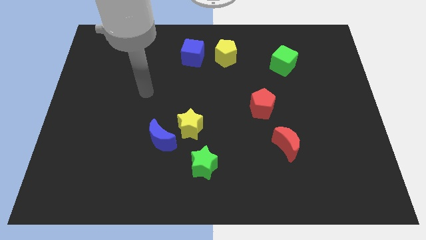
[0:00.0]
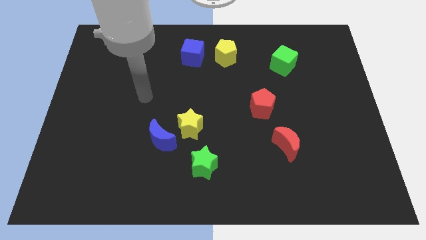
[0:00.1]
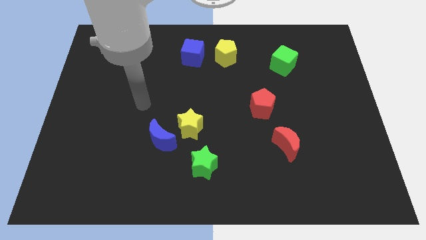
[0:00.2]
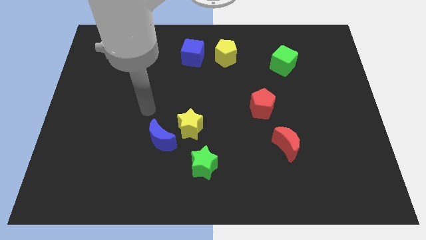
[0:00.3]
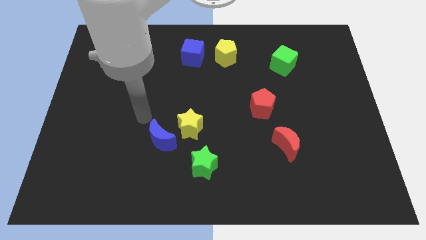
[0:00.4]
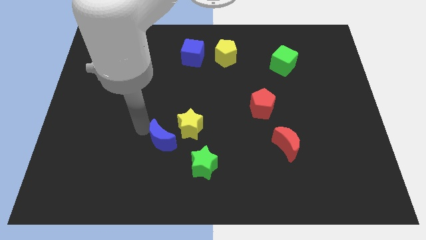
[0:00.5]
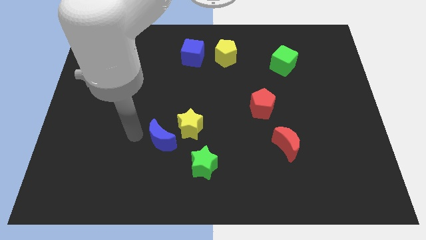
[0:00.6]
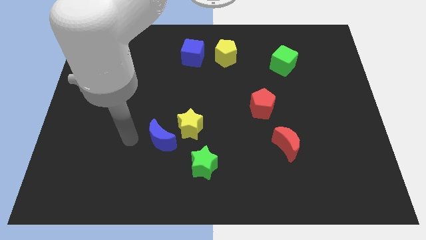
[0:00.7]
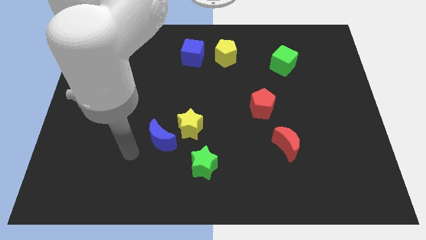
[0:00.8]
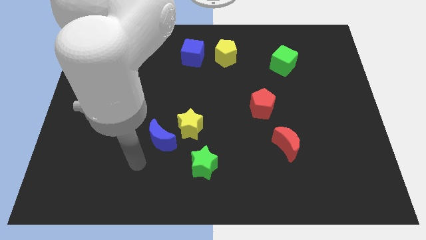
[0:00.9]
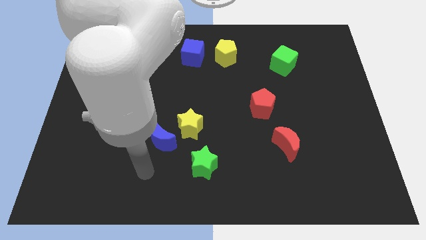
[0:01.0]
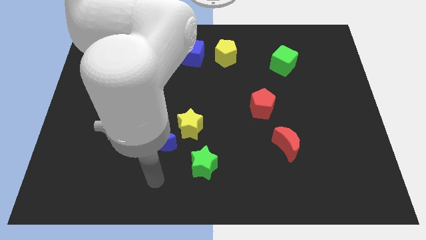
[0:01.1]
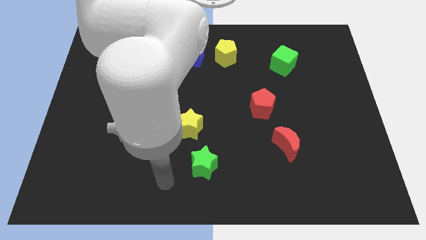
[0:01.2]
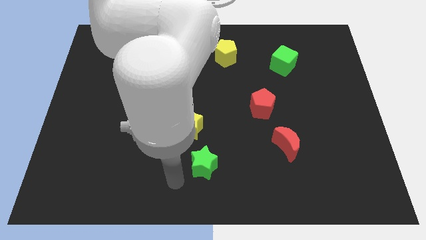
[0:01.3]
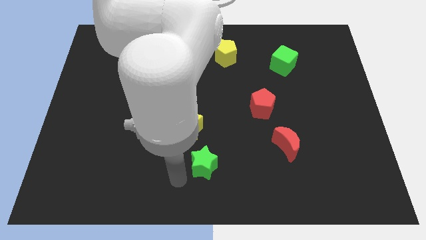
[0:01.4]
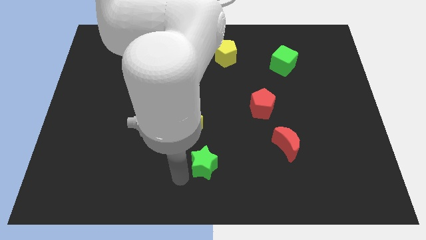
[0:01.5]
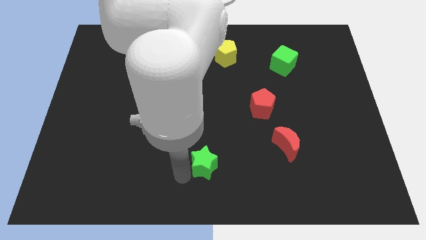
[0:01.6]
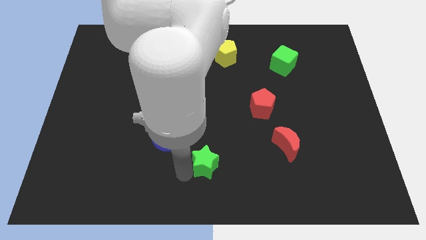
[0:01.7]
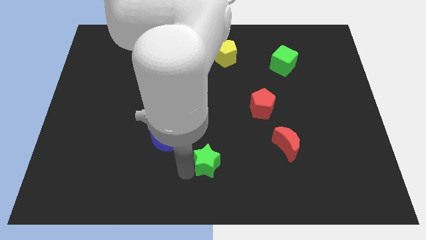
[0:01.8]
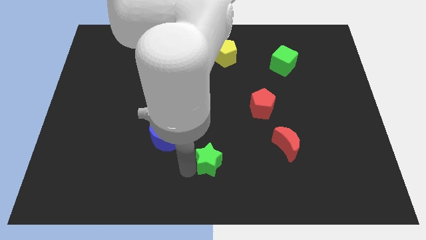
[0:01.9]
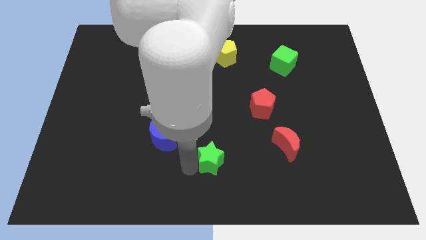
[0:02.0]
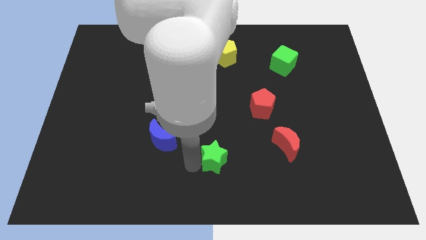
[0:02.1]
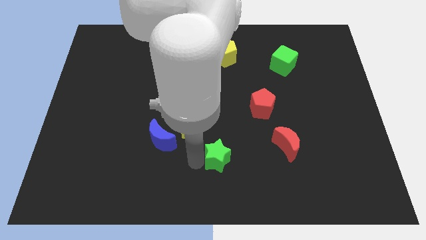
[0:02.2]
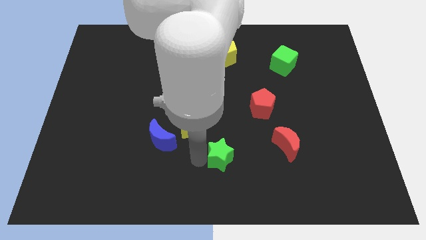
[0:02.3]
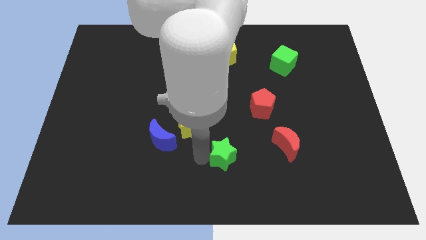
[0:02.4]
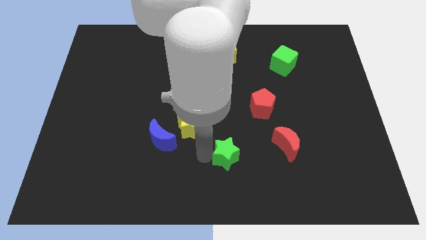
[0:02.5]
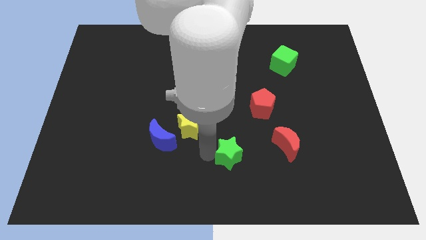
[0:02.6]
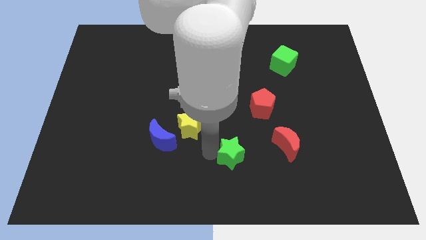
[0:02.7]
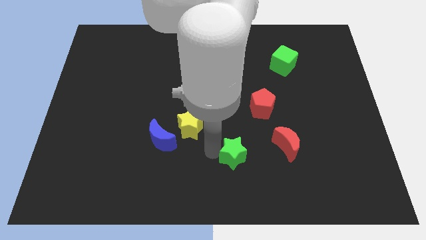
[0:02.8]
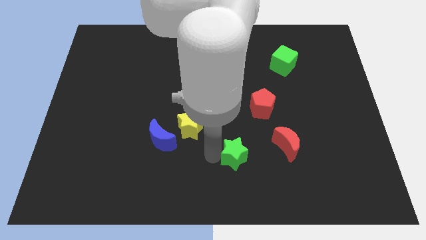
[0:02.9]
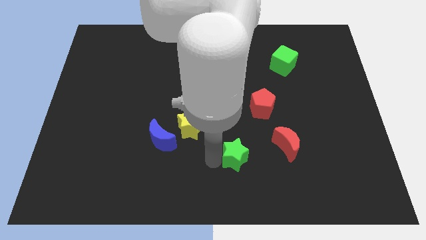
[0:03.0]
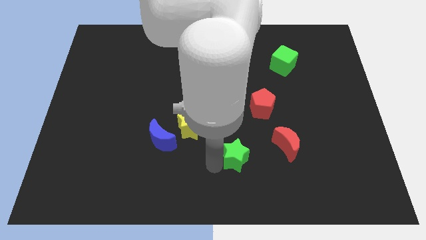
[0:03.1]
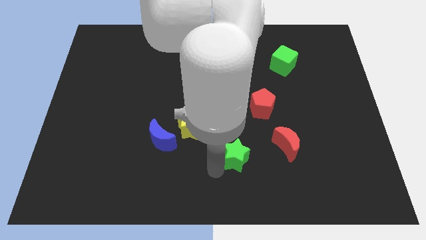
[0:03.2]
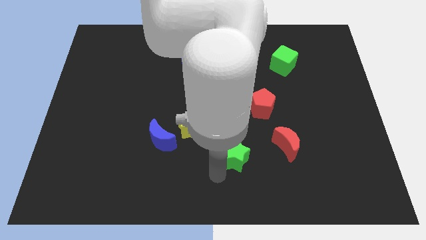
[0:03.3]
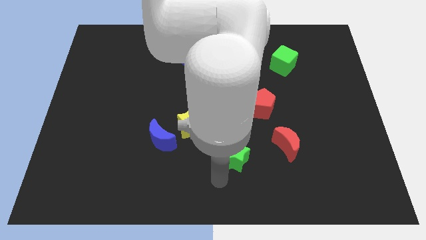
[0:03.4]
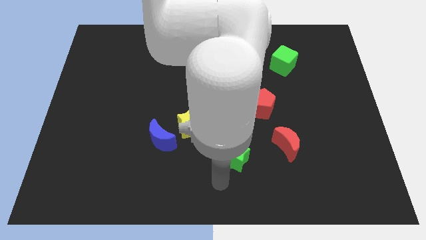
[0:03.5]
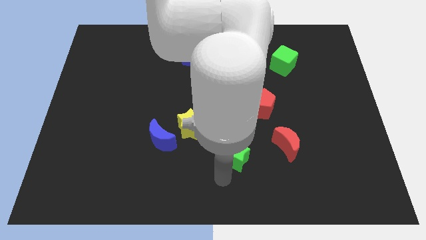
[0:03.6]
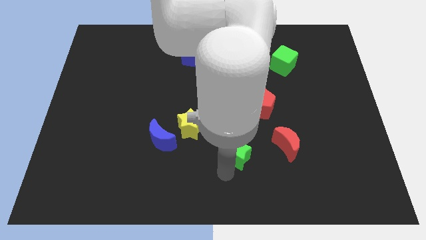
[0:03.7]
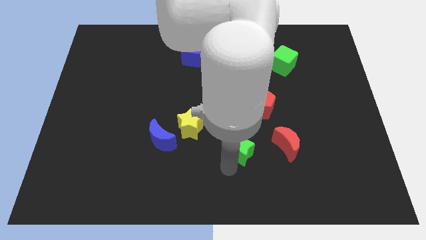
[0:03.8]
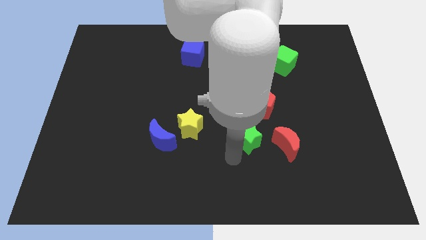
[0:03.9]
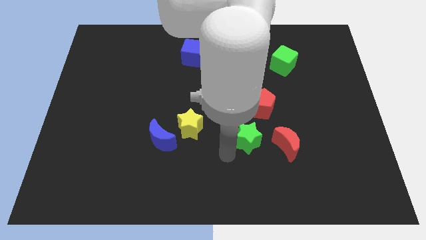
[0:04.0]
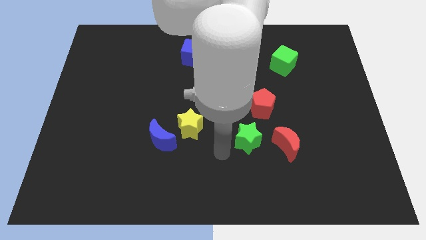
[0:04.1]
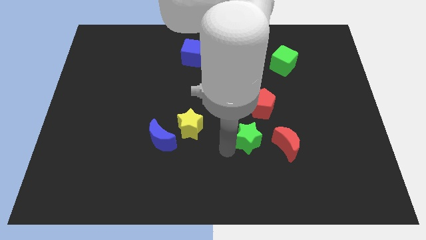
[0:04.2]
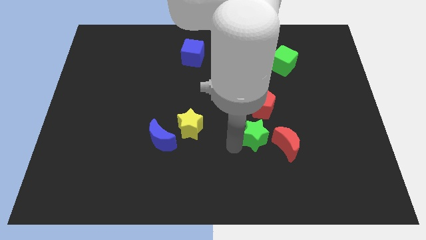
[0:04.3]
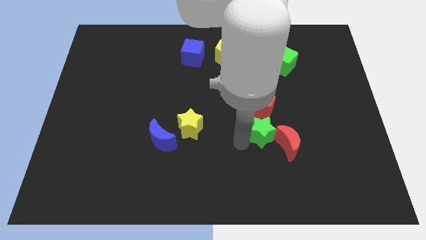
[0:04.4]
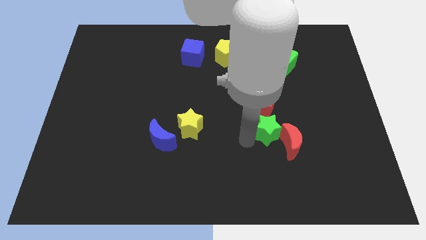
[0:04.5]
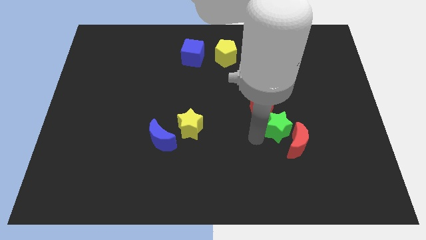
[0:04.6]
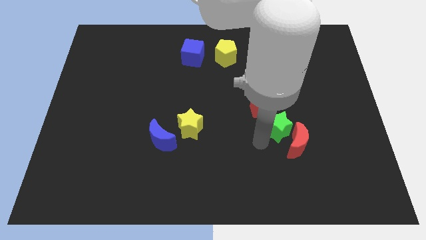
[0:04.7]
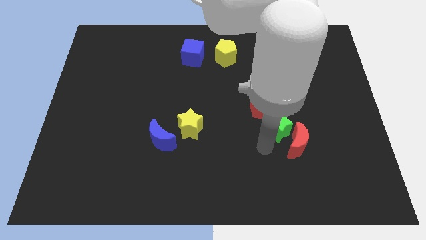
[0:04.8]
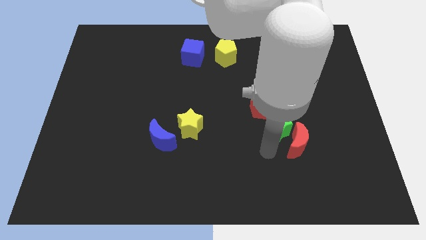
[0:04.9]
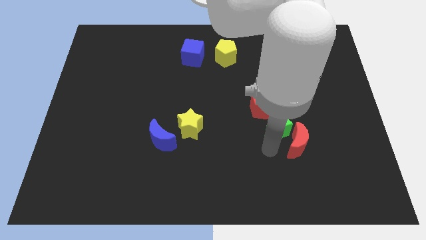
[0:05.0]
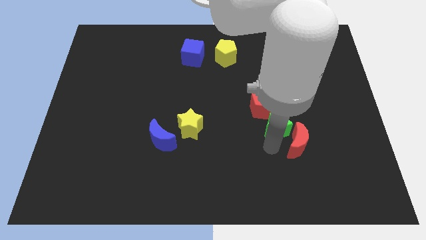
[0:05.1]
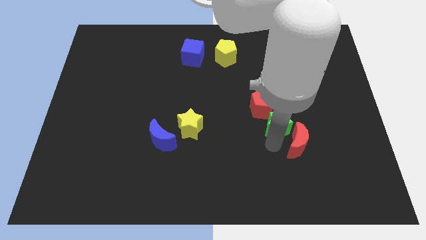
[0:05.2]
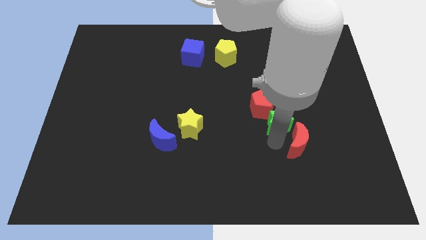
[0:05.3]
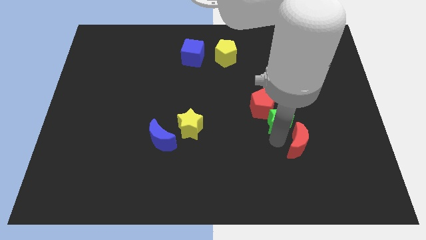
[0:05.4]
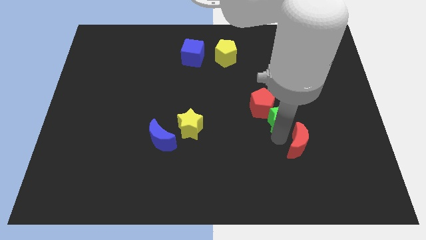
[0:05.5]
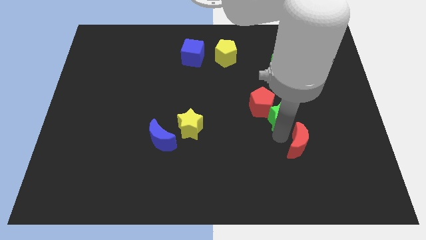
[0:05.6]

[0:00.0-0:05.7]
slide the green star diagonally up and to the right

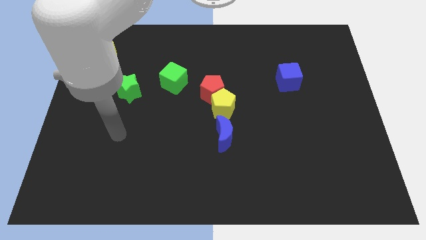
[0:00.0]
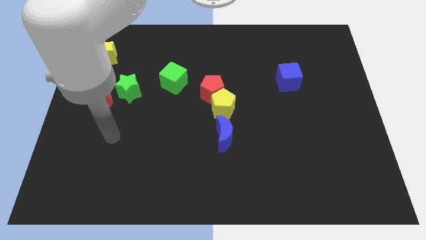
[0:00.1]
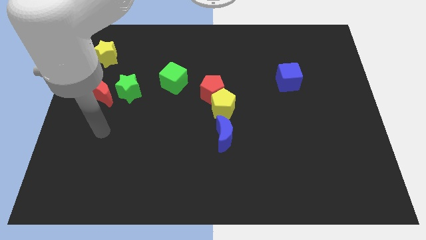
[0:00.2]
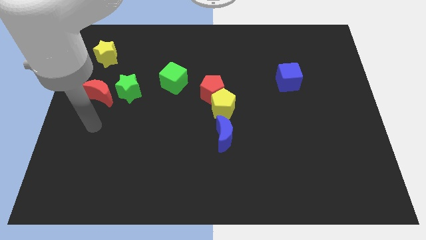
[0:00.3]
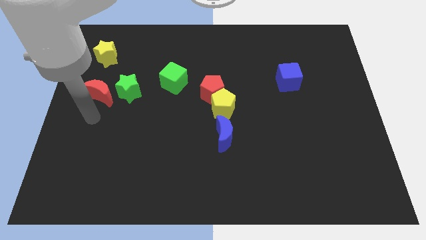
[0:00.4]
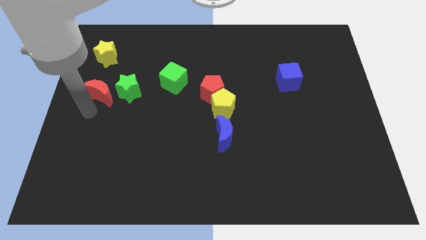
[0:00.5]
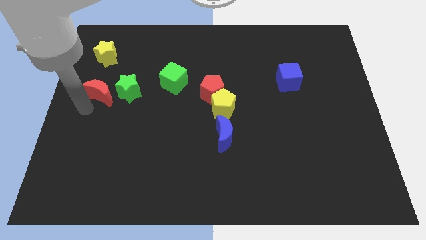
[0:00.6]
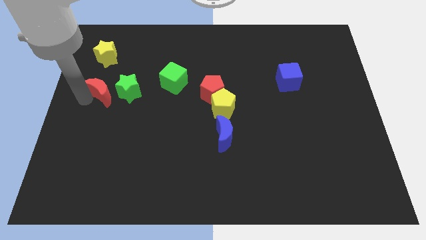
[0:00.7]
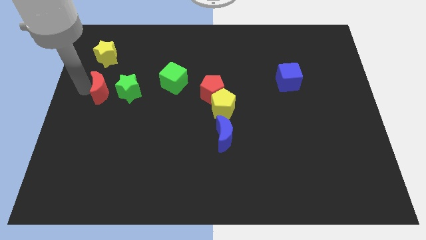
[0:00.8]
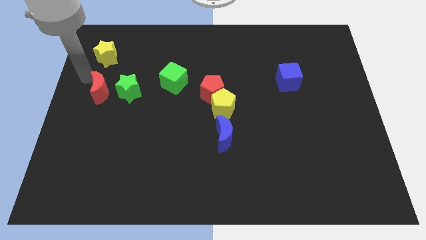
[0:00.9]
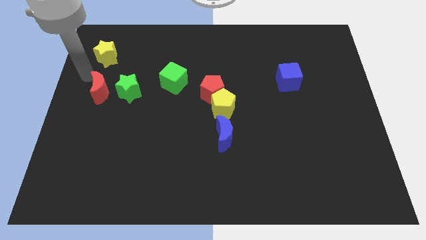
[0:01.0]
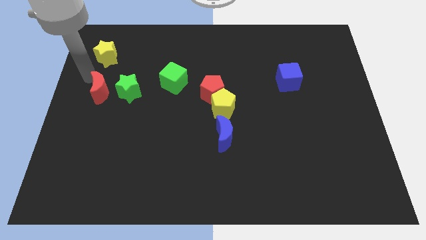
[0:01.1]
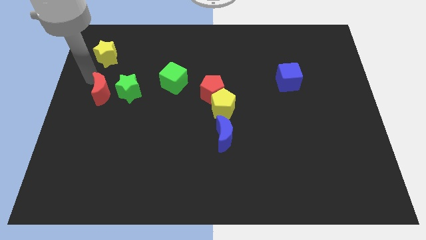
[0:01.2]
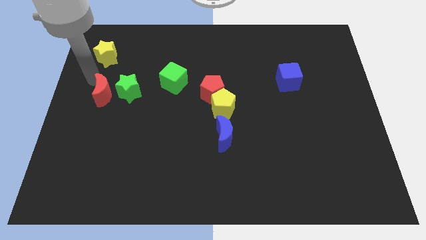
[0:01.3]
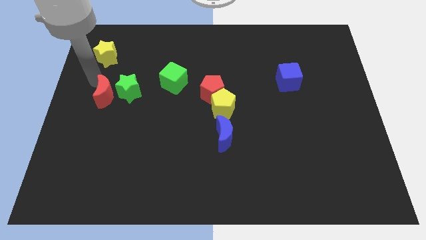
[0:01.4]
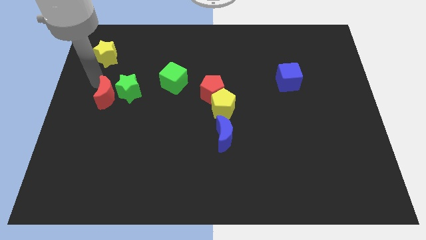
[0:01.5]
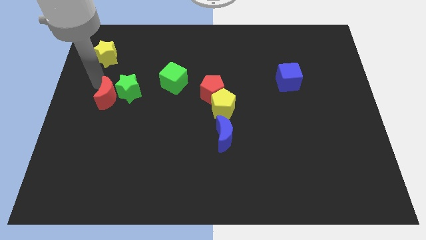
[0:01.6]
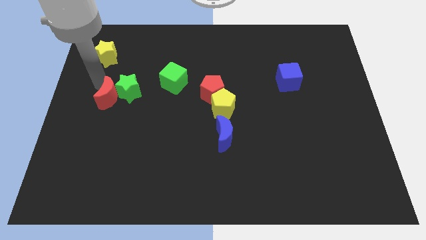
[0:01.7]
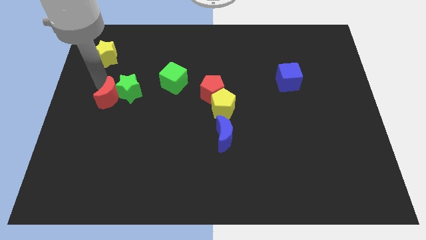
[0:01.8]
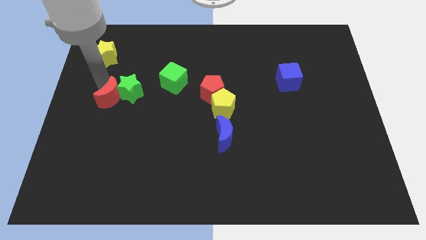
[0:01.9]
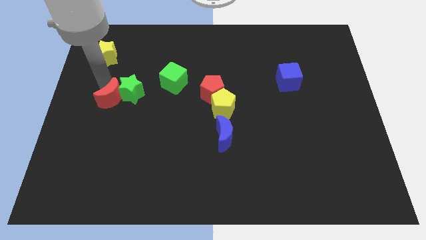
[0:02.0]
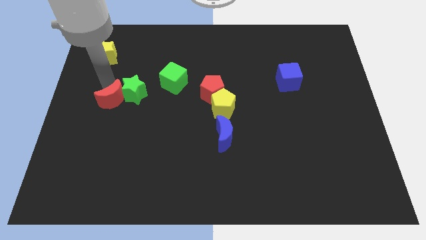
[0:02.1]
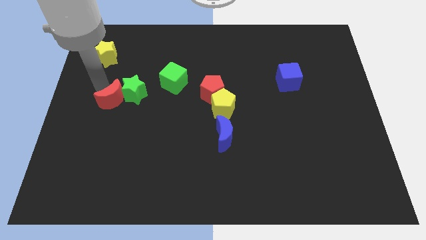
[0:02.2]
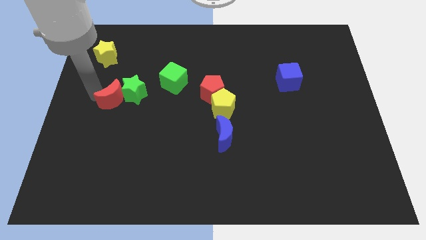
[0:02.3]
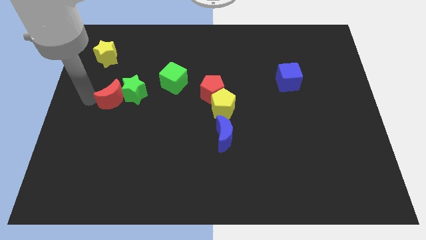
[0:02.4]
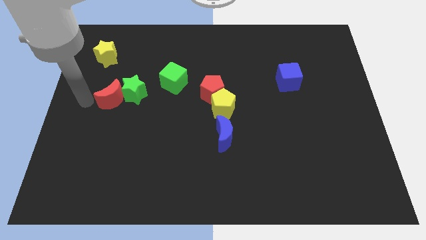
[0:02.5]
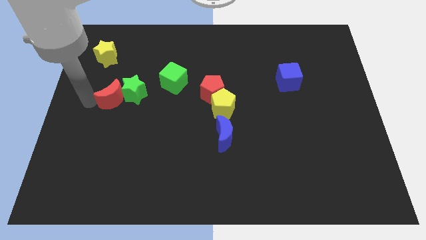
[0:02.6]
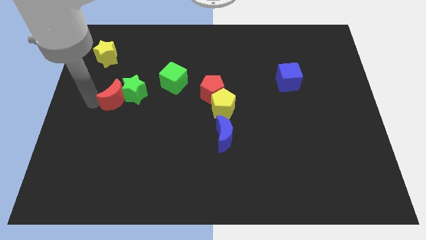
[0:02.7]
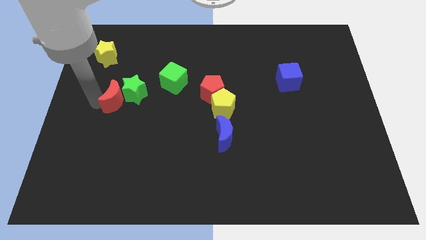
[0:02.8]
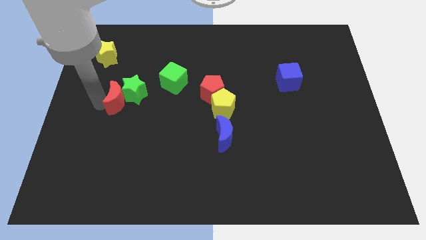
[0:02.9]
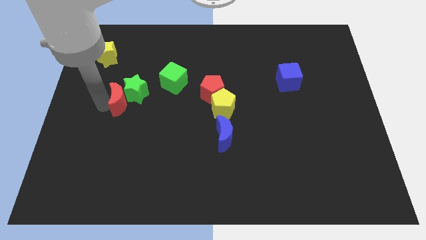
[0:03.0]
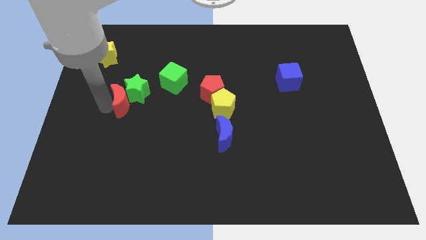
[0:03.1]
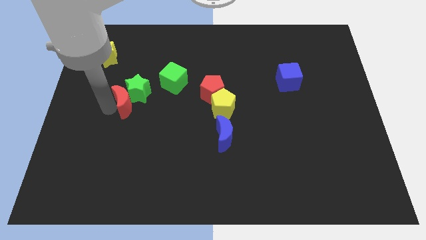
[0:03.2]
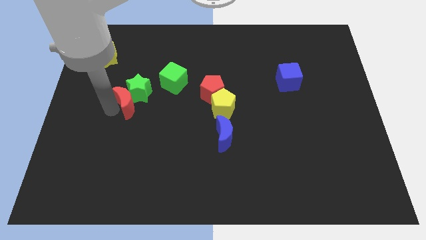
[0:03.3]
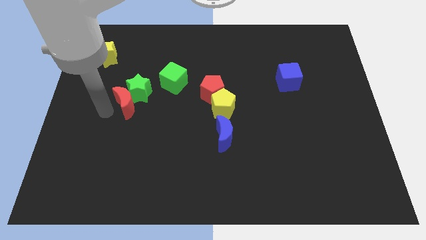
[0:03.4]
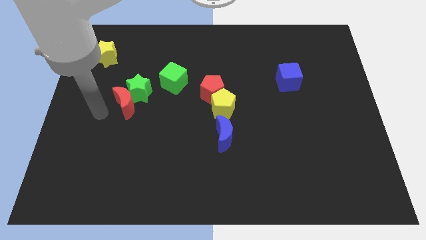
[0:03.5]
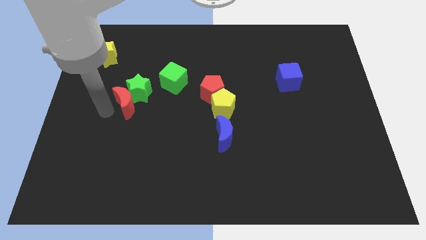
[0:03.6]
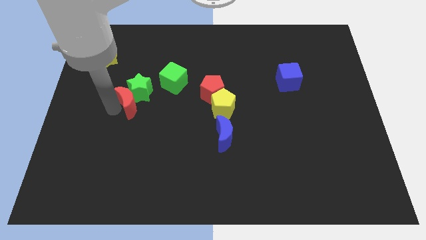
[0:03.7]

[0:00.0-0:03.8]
move the red moon a bit right
